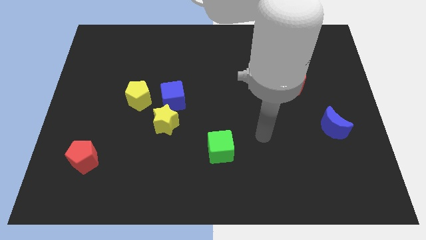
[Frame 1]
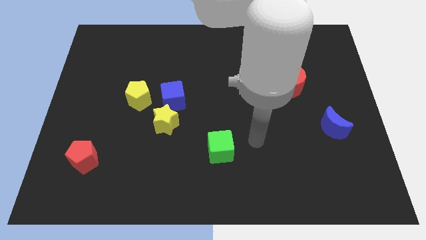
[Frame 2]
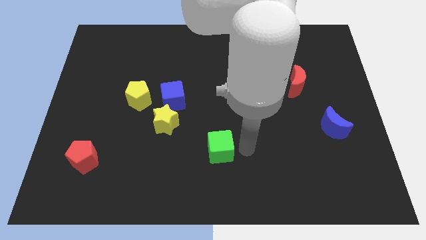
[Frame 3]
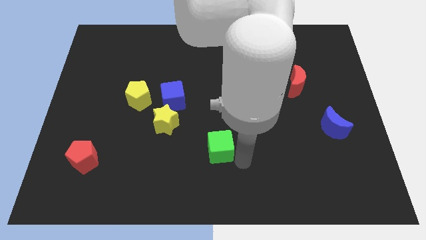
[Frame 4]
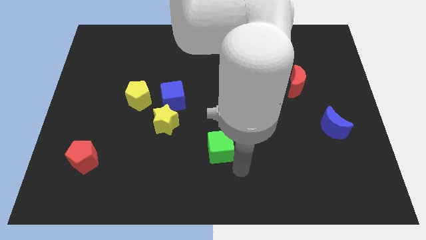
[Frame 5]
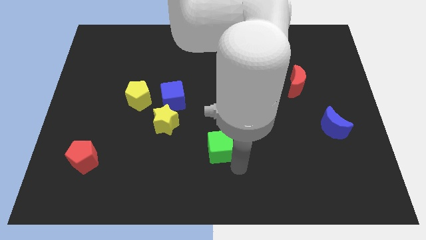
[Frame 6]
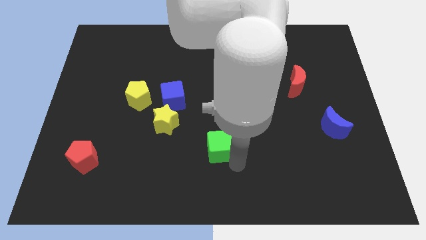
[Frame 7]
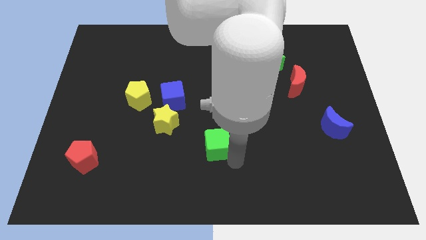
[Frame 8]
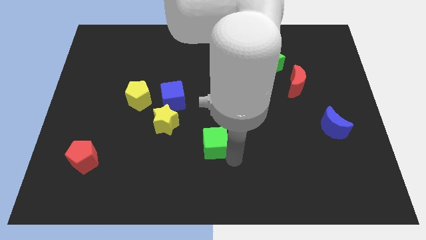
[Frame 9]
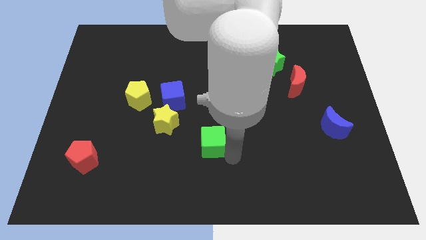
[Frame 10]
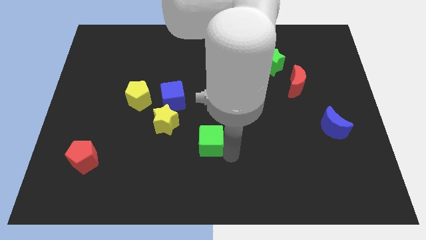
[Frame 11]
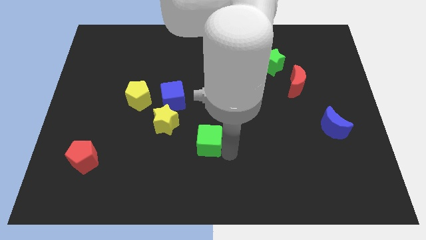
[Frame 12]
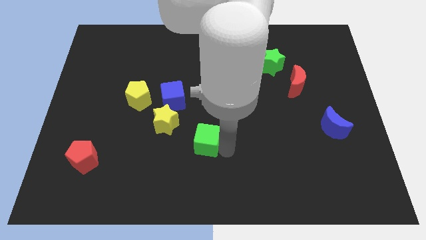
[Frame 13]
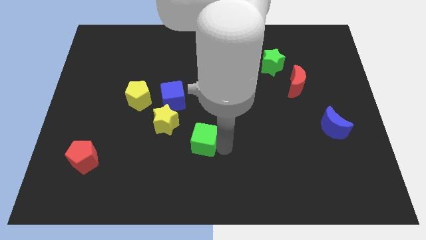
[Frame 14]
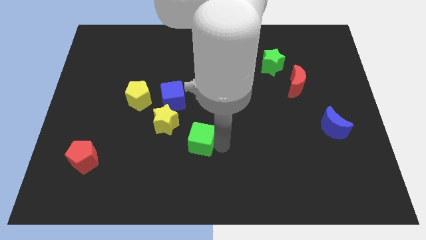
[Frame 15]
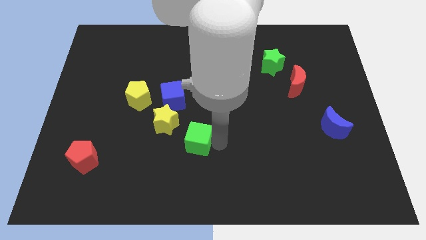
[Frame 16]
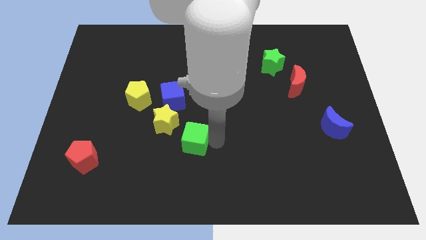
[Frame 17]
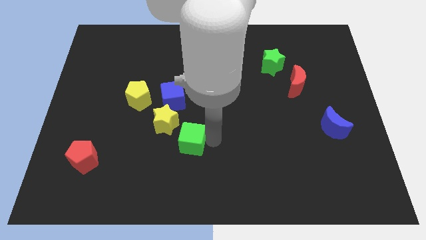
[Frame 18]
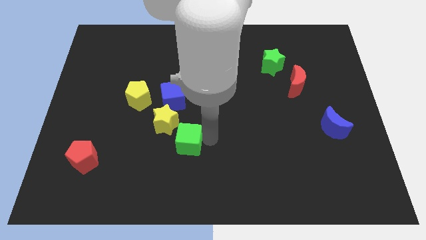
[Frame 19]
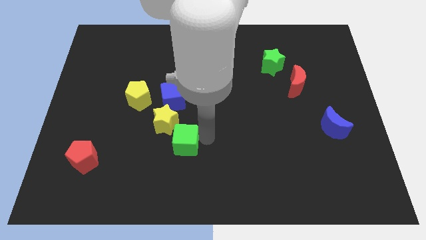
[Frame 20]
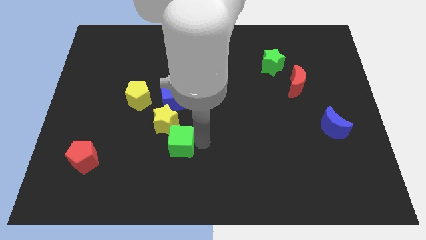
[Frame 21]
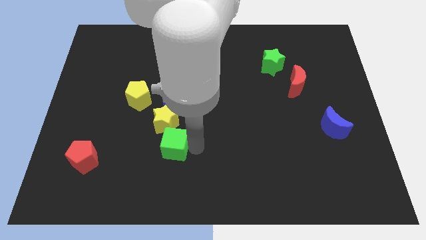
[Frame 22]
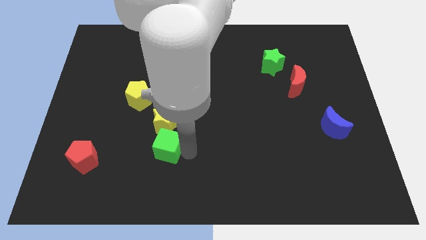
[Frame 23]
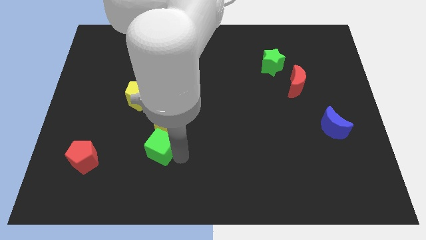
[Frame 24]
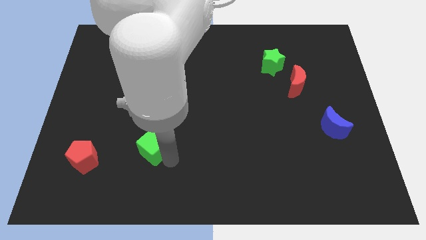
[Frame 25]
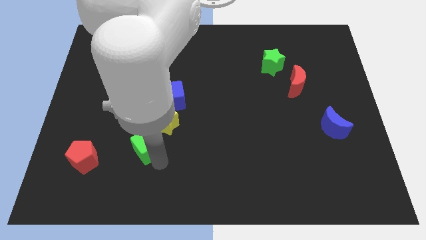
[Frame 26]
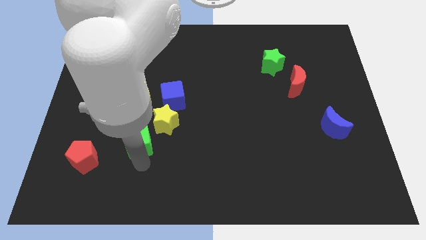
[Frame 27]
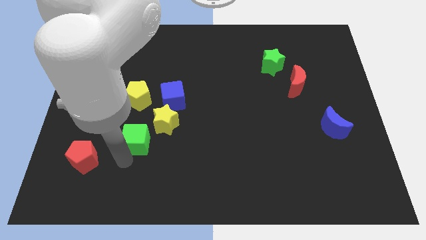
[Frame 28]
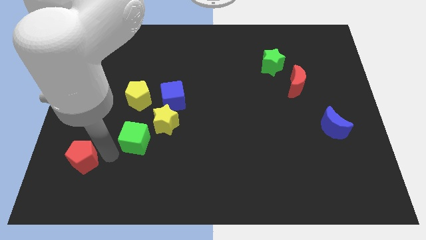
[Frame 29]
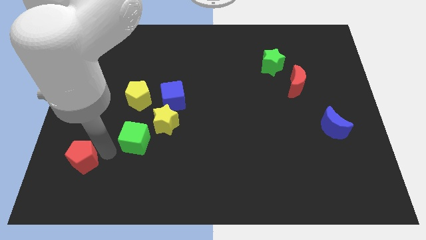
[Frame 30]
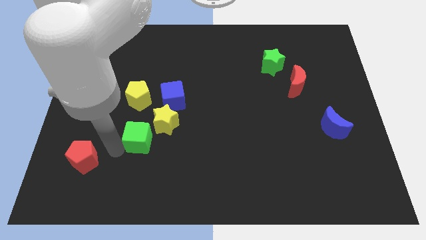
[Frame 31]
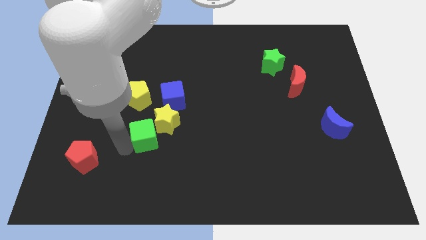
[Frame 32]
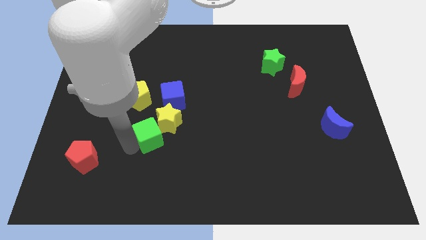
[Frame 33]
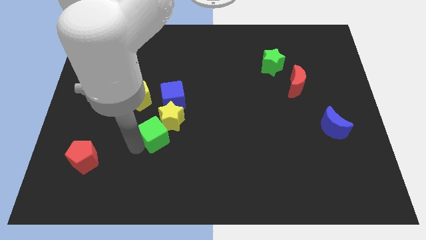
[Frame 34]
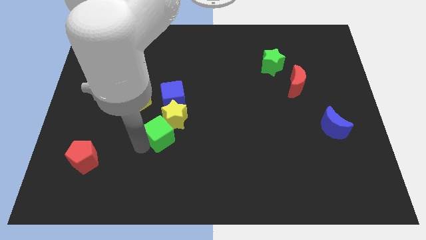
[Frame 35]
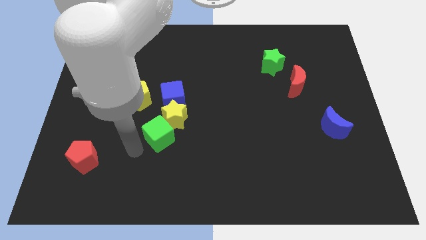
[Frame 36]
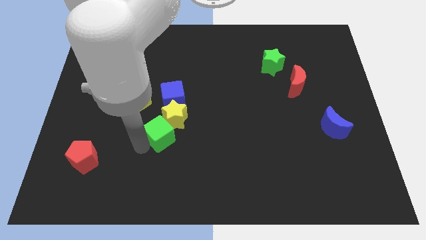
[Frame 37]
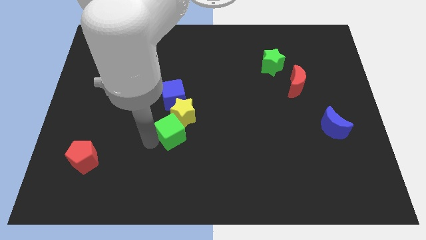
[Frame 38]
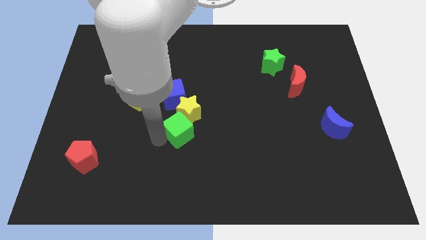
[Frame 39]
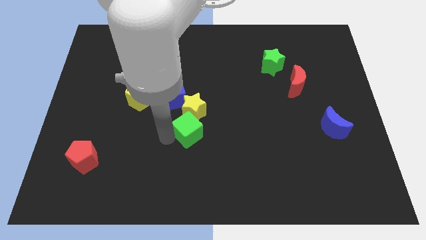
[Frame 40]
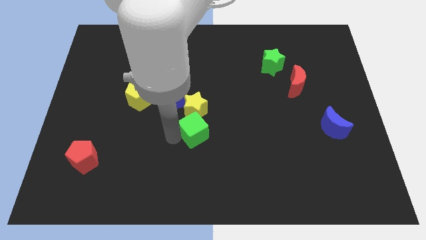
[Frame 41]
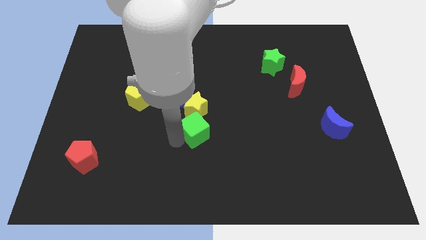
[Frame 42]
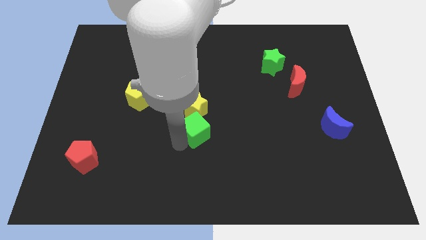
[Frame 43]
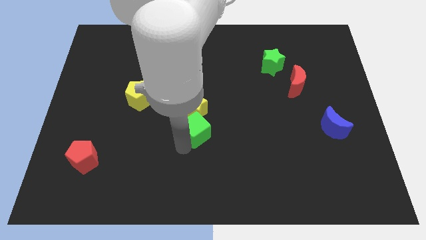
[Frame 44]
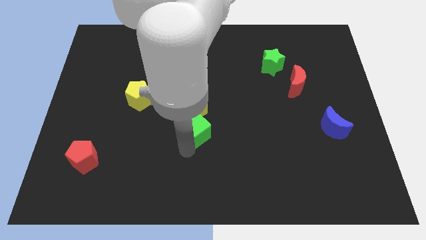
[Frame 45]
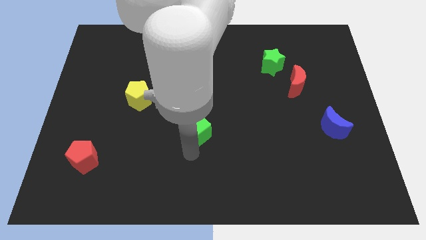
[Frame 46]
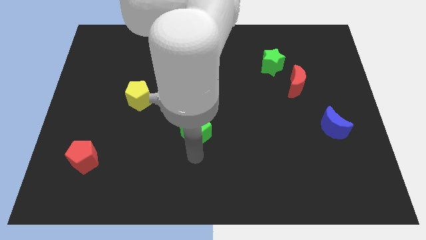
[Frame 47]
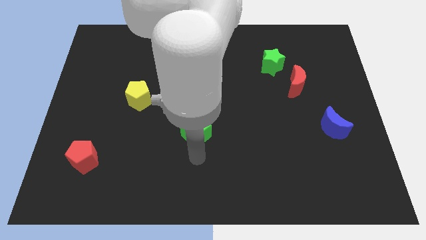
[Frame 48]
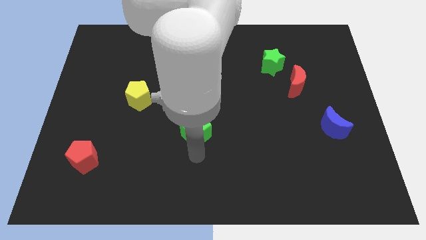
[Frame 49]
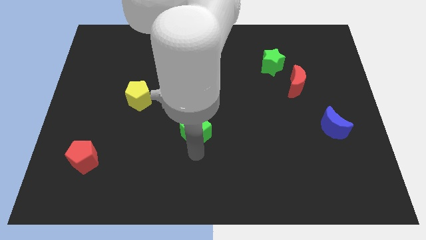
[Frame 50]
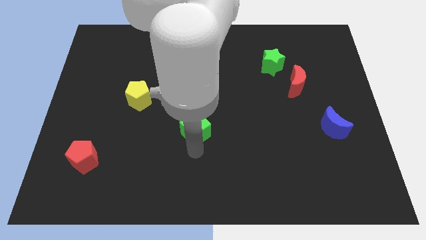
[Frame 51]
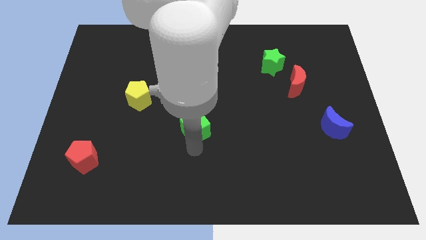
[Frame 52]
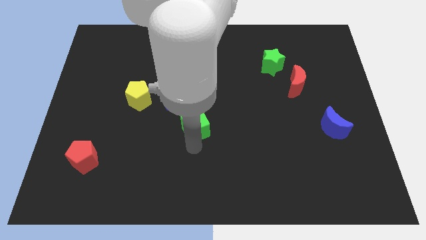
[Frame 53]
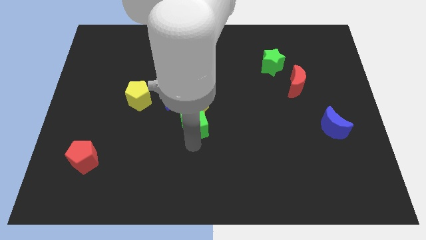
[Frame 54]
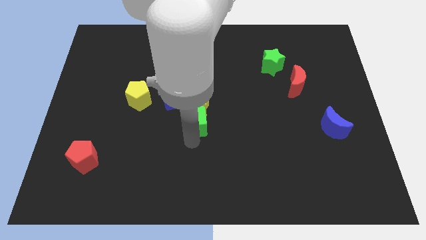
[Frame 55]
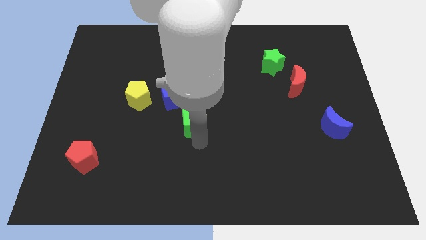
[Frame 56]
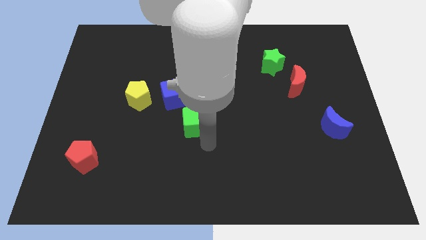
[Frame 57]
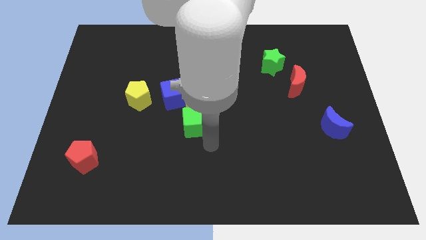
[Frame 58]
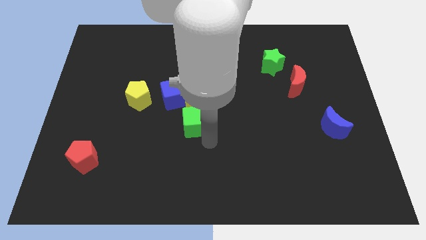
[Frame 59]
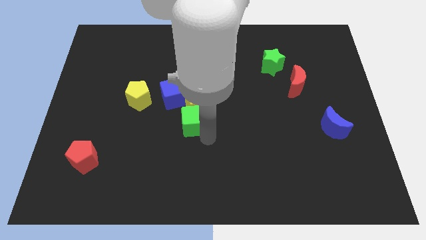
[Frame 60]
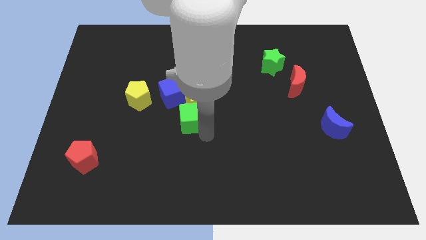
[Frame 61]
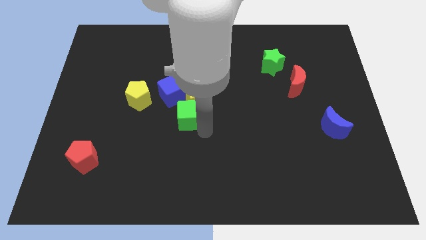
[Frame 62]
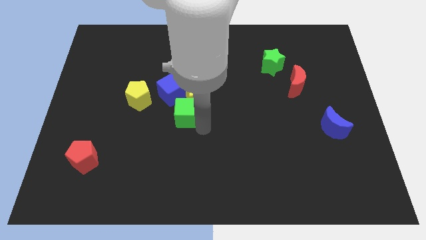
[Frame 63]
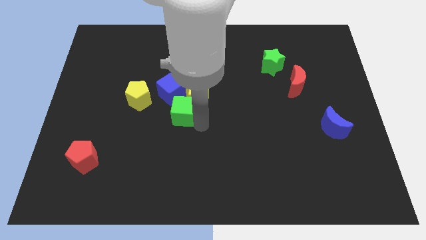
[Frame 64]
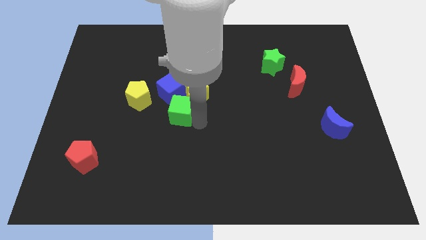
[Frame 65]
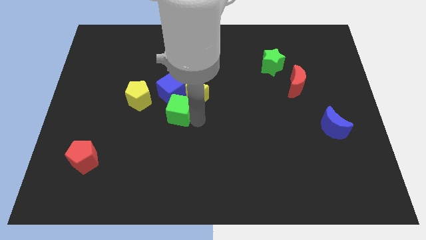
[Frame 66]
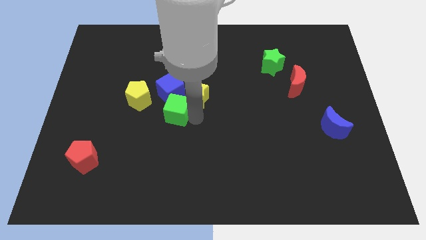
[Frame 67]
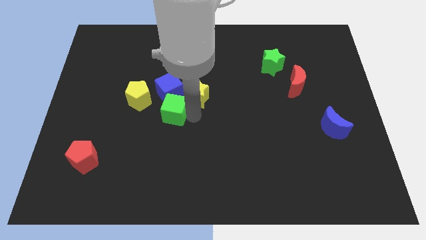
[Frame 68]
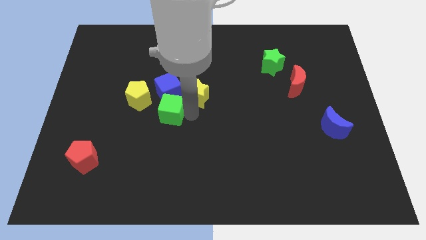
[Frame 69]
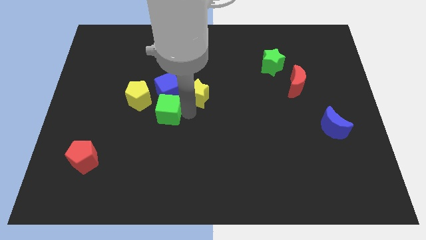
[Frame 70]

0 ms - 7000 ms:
push the green cube next to the blue cube

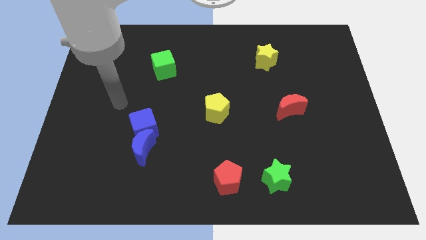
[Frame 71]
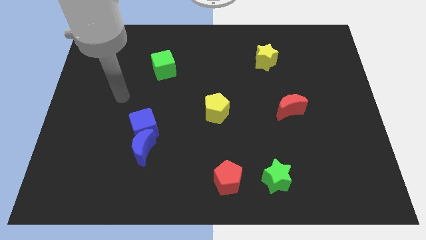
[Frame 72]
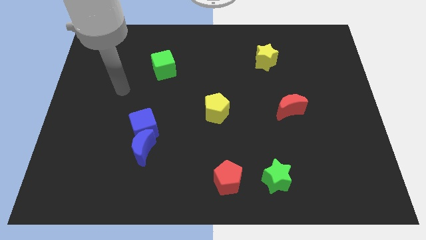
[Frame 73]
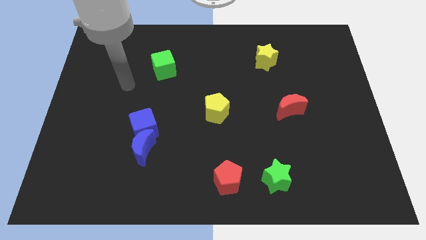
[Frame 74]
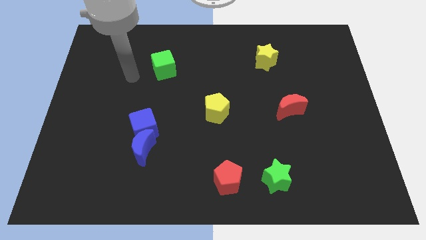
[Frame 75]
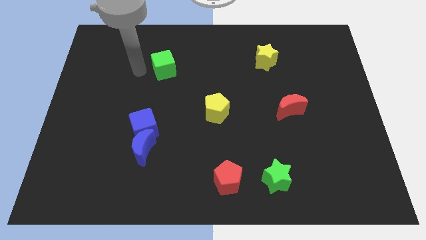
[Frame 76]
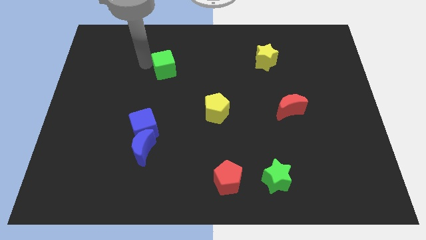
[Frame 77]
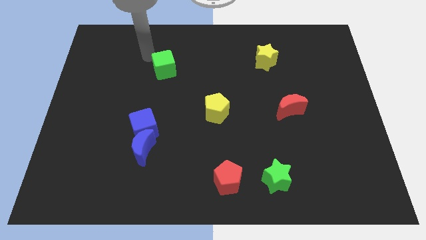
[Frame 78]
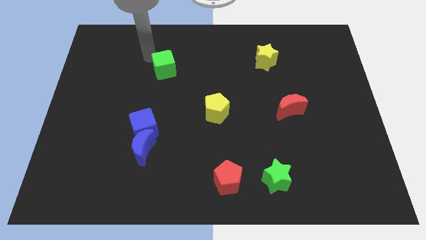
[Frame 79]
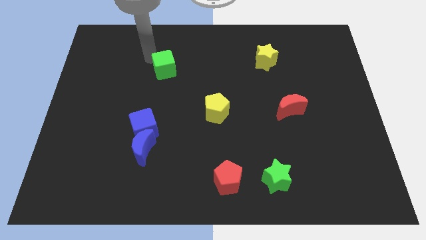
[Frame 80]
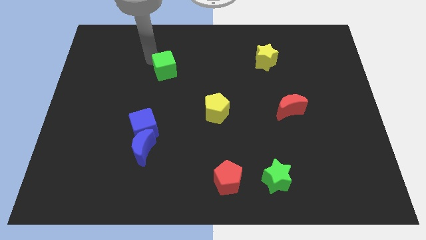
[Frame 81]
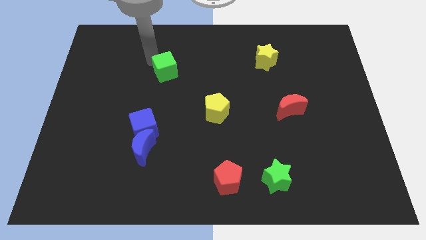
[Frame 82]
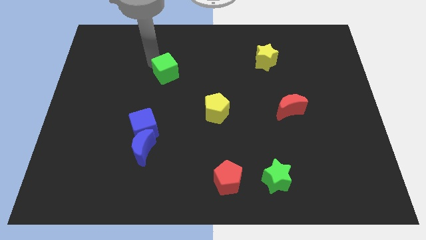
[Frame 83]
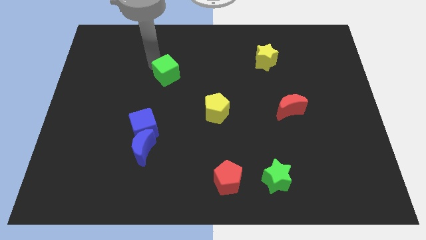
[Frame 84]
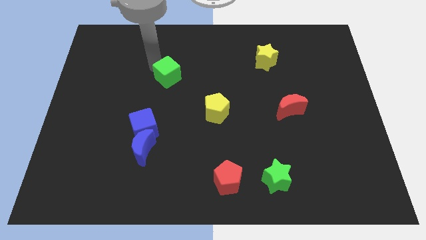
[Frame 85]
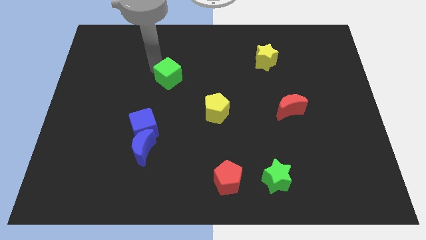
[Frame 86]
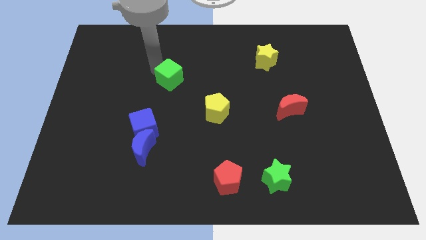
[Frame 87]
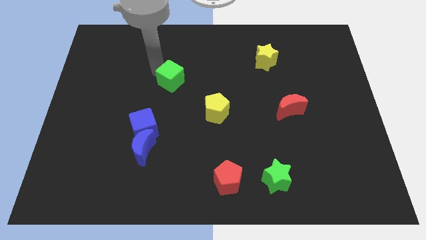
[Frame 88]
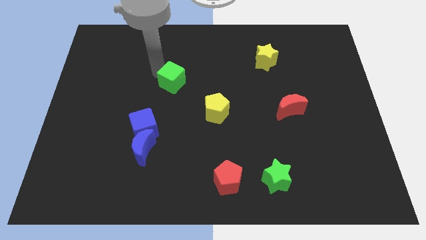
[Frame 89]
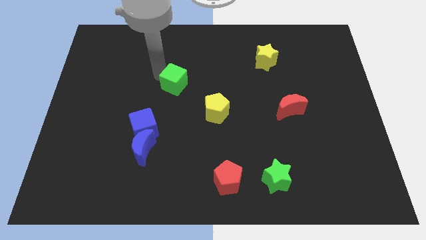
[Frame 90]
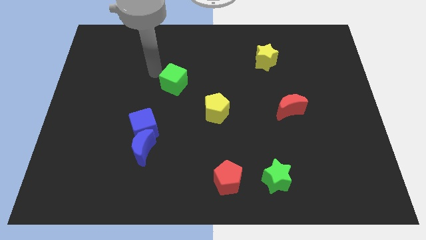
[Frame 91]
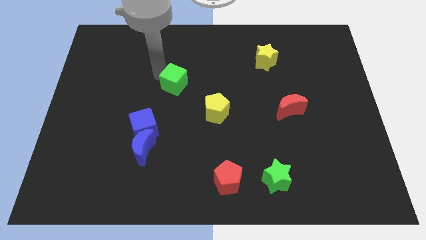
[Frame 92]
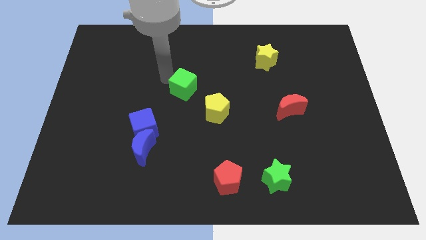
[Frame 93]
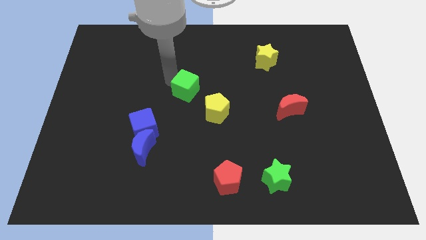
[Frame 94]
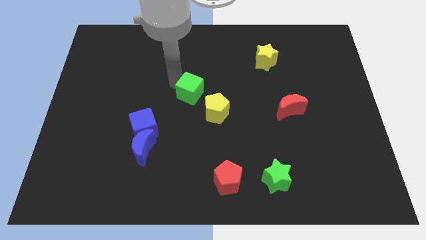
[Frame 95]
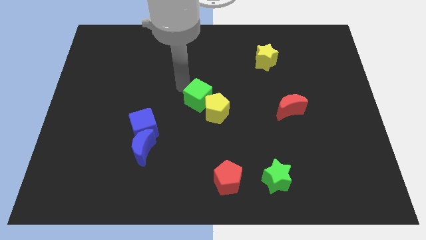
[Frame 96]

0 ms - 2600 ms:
slide the green cube close to the yellow pentagon
